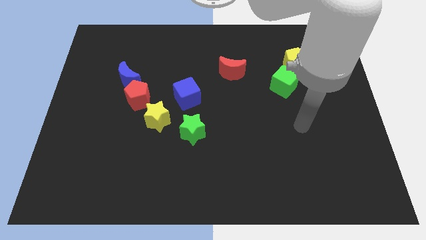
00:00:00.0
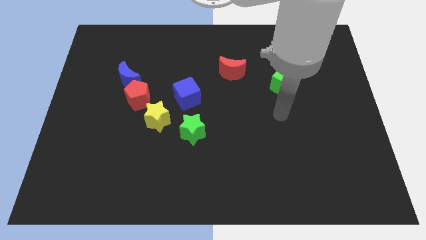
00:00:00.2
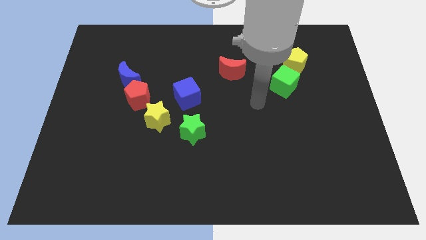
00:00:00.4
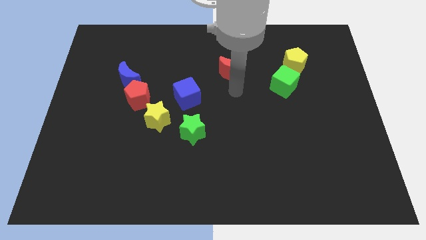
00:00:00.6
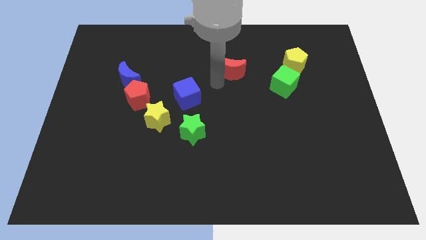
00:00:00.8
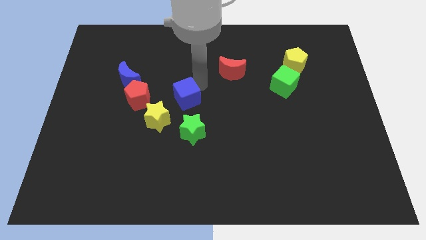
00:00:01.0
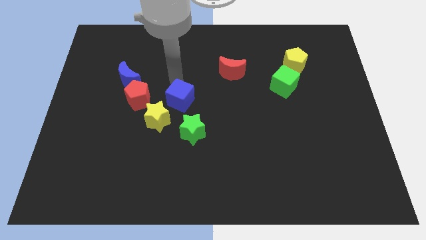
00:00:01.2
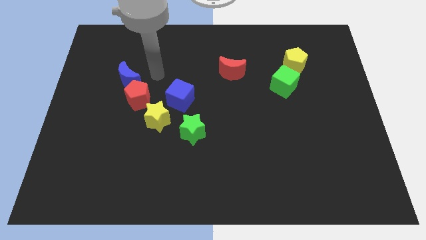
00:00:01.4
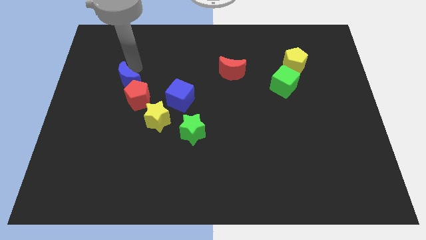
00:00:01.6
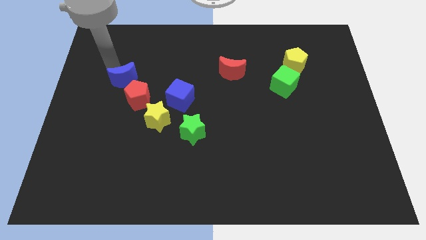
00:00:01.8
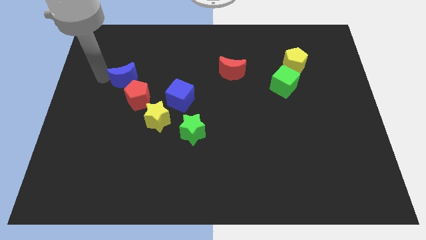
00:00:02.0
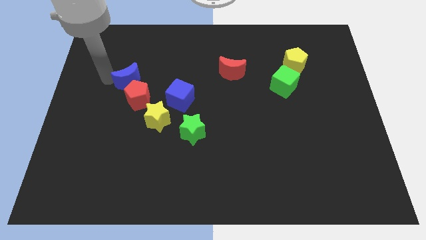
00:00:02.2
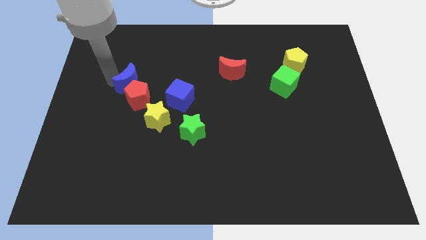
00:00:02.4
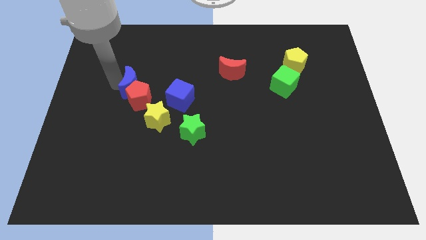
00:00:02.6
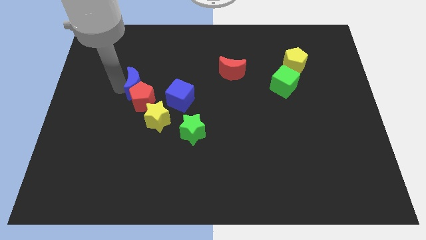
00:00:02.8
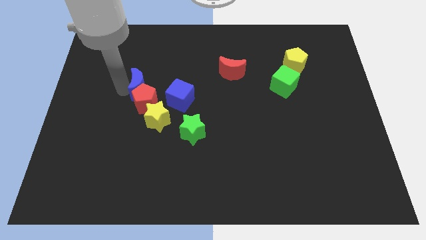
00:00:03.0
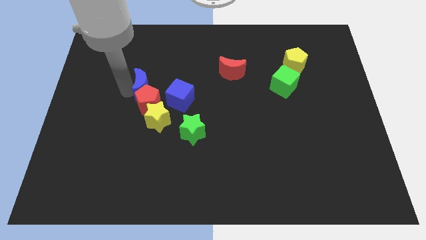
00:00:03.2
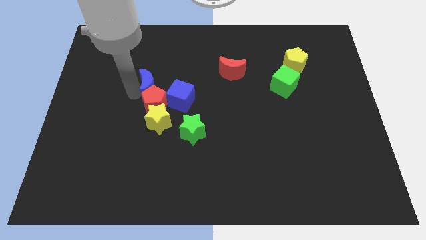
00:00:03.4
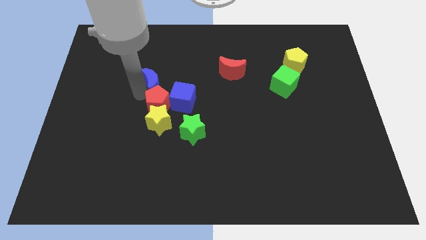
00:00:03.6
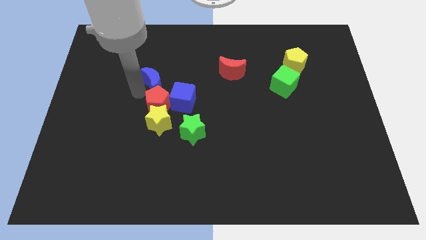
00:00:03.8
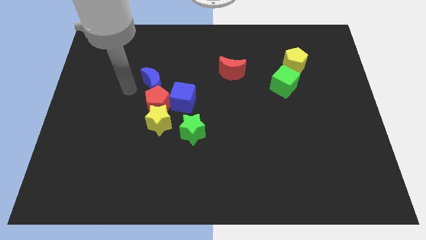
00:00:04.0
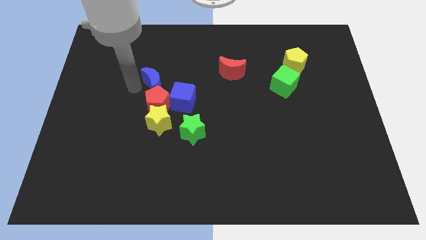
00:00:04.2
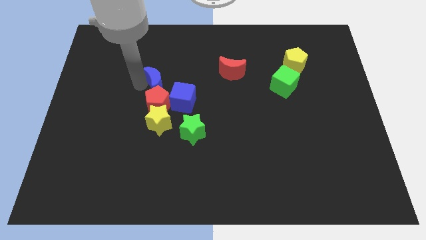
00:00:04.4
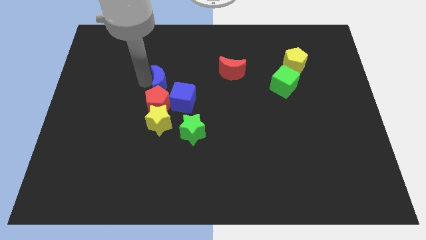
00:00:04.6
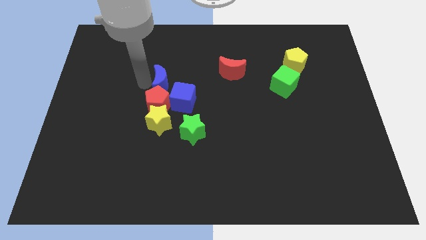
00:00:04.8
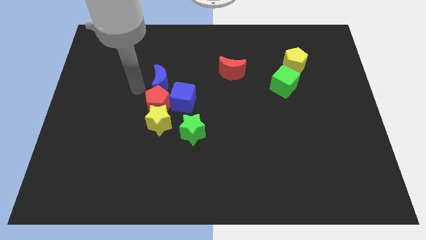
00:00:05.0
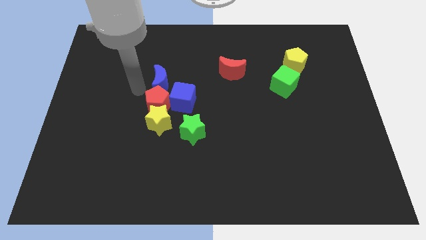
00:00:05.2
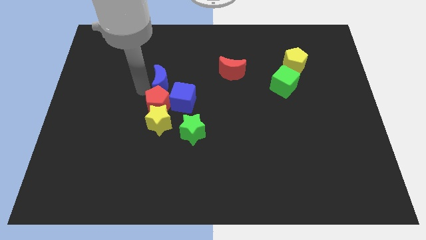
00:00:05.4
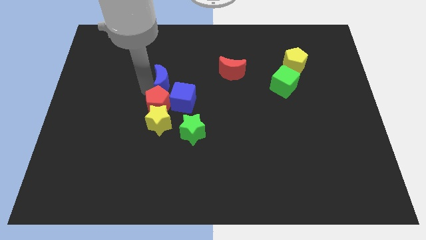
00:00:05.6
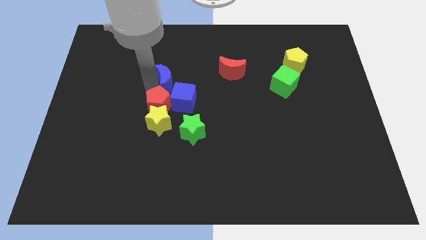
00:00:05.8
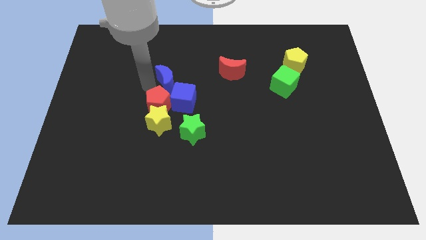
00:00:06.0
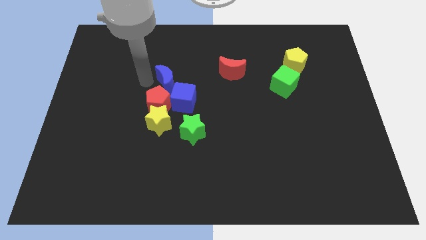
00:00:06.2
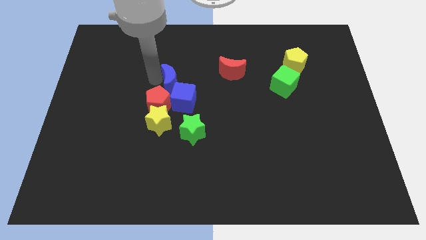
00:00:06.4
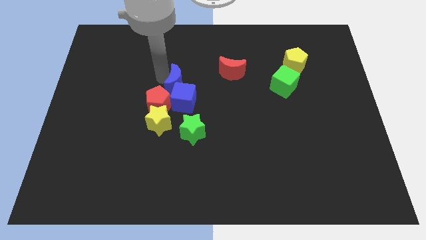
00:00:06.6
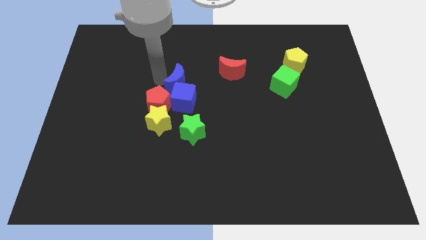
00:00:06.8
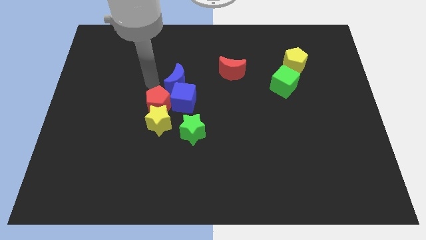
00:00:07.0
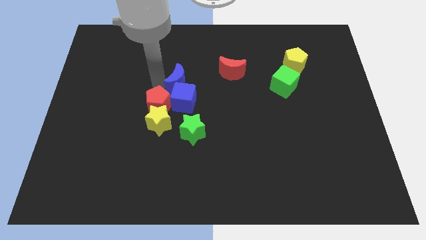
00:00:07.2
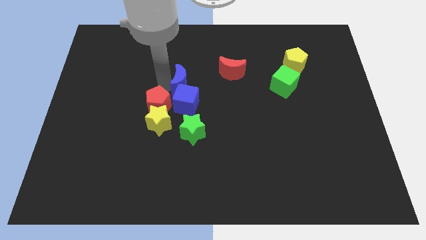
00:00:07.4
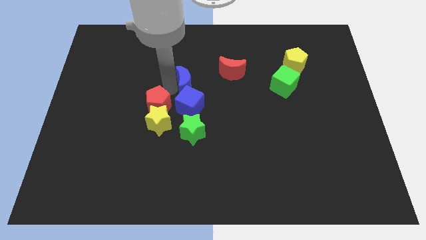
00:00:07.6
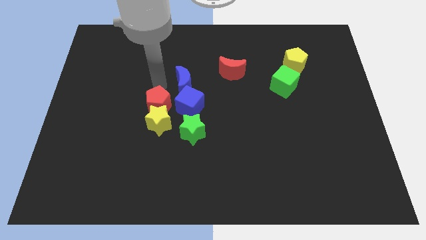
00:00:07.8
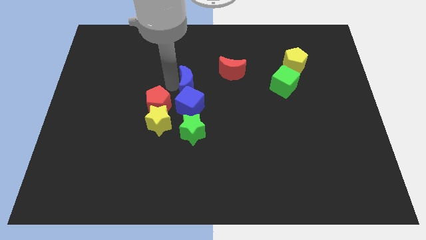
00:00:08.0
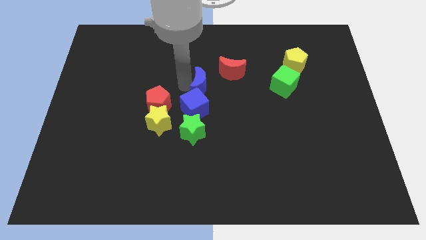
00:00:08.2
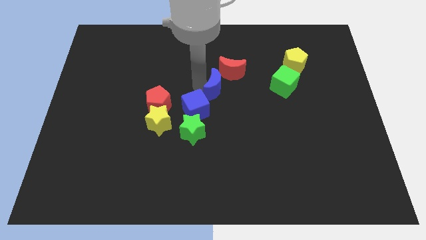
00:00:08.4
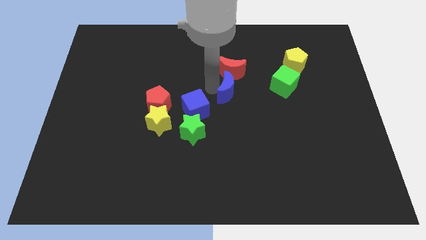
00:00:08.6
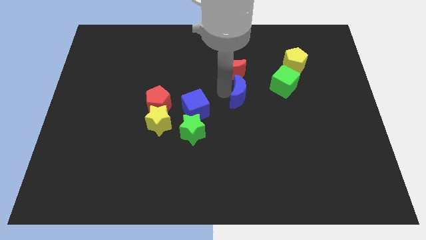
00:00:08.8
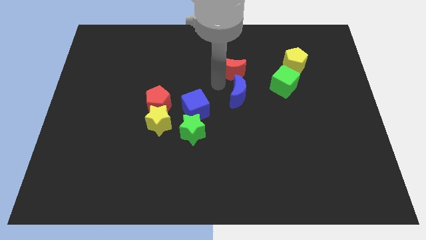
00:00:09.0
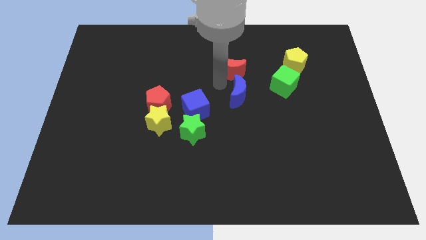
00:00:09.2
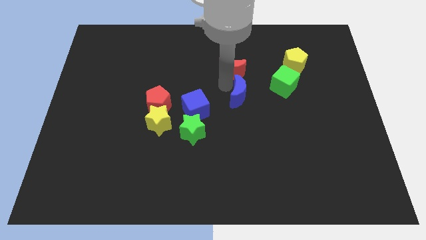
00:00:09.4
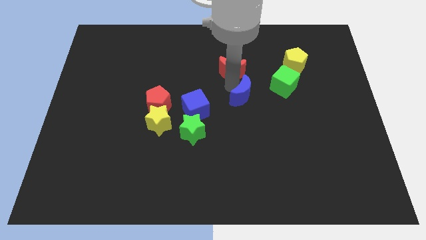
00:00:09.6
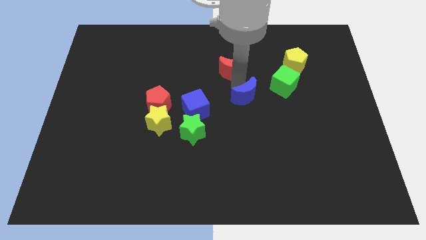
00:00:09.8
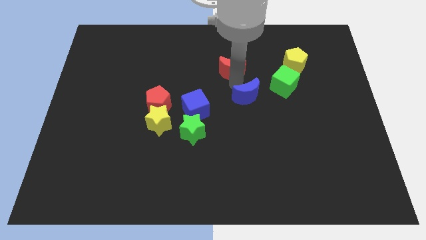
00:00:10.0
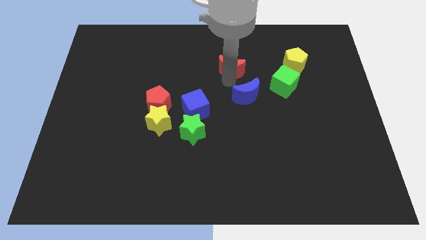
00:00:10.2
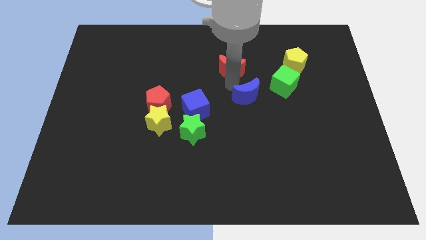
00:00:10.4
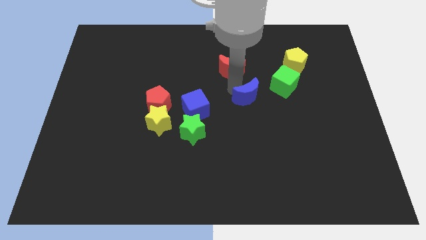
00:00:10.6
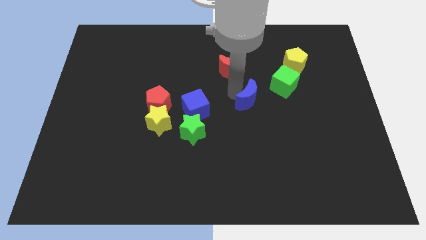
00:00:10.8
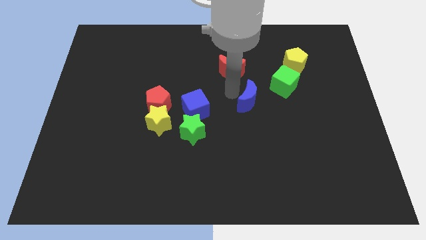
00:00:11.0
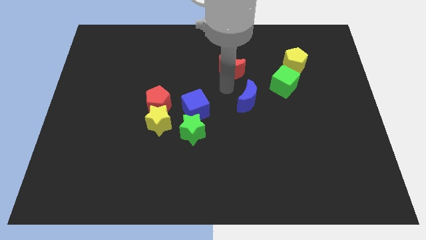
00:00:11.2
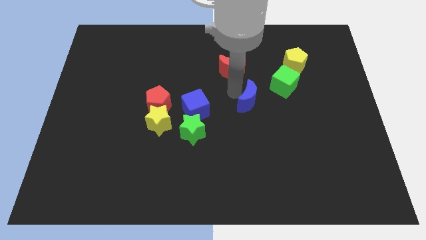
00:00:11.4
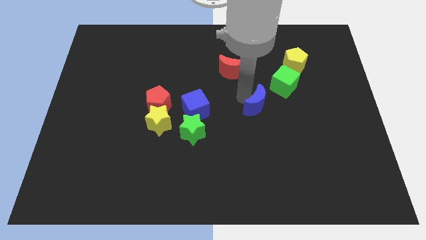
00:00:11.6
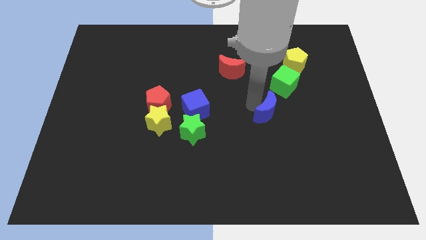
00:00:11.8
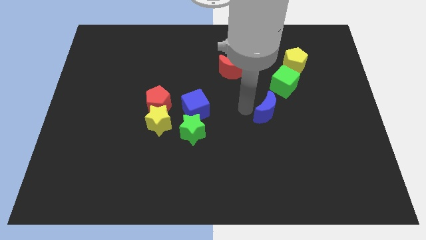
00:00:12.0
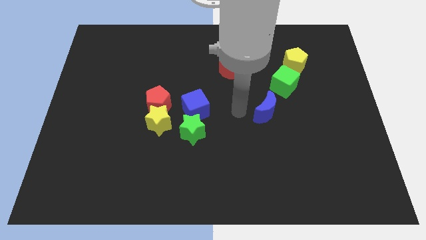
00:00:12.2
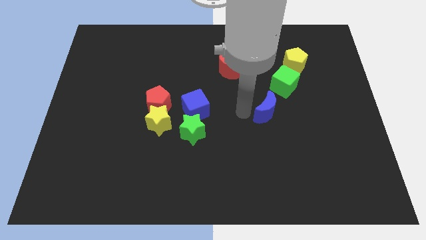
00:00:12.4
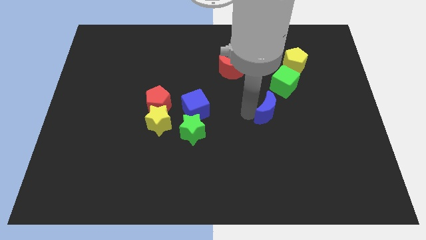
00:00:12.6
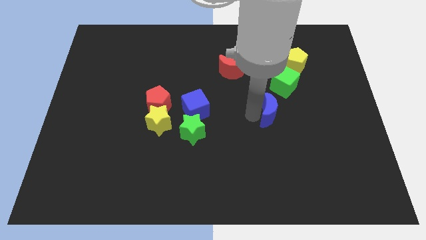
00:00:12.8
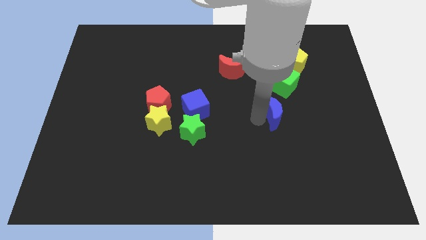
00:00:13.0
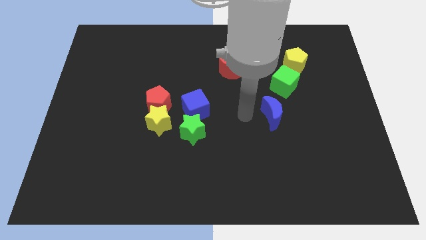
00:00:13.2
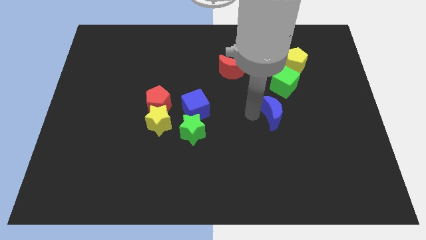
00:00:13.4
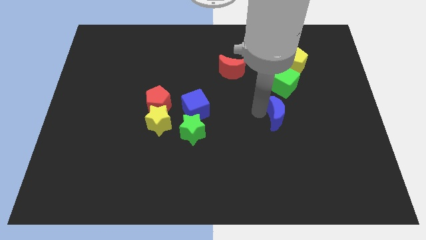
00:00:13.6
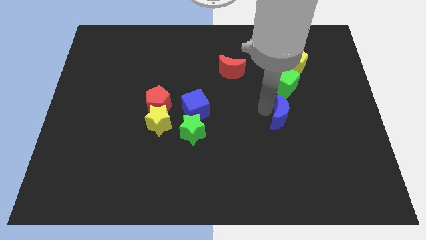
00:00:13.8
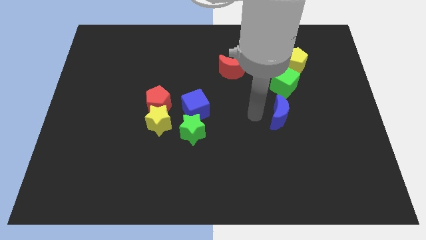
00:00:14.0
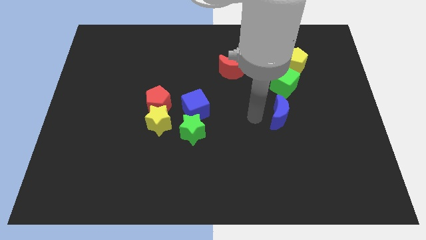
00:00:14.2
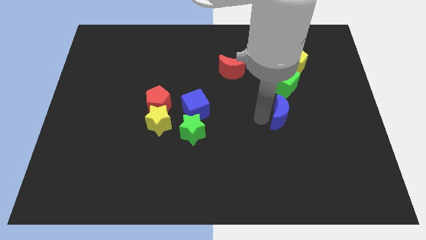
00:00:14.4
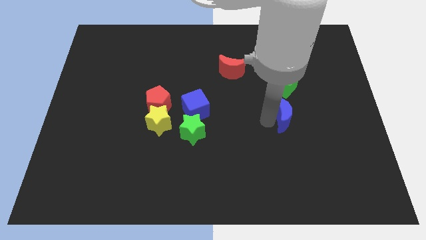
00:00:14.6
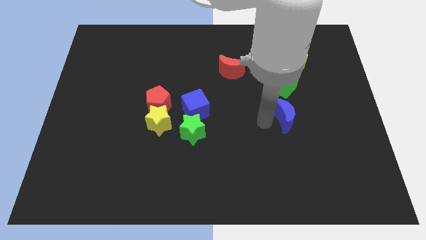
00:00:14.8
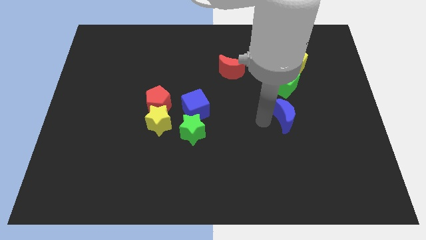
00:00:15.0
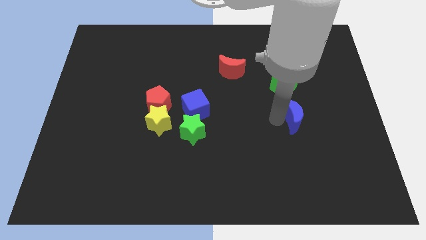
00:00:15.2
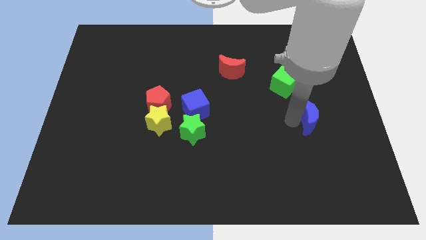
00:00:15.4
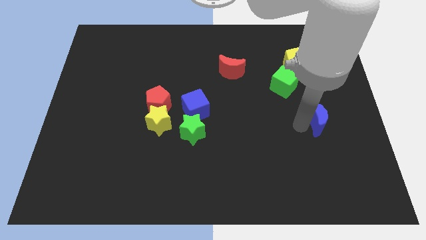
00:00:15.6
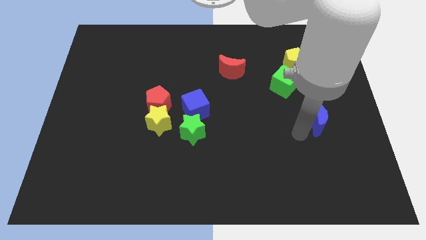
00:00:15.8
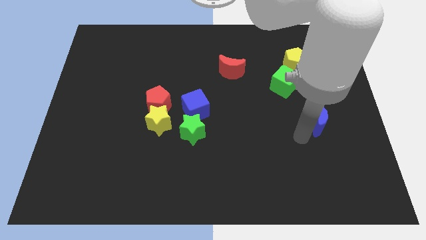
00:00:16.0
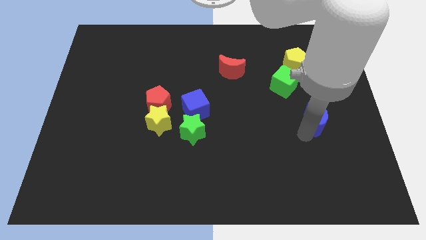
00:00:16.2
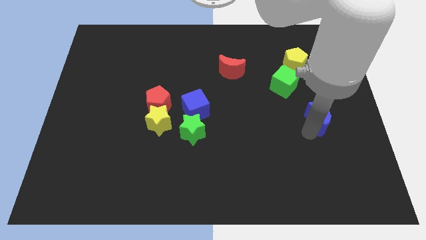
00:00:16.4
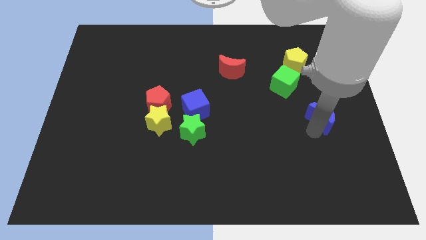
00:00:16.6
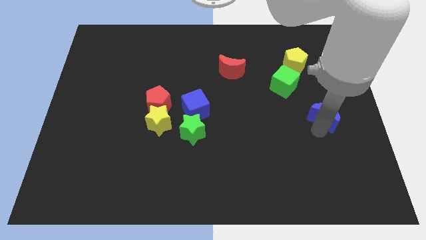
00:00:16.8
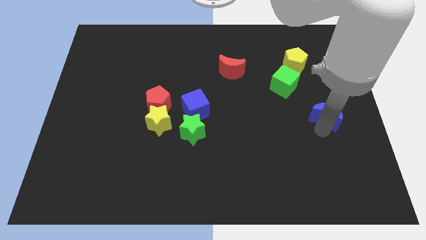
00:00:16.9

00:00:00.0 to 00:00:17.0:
move the blue moon to the right side of the board
